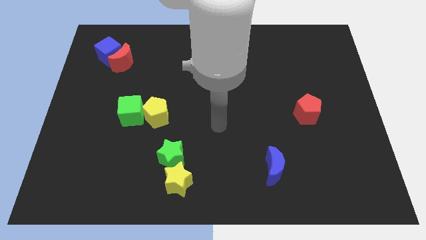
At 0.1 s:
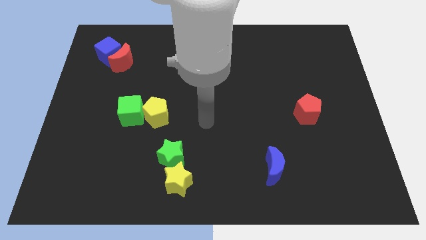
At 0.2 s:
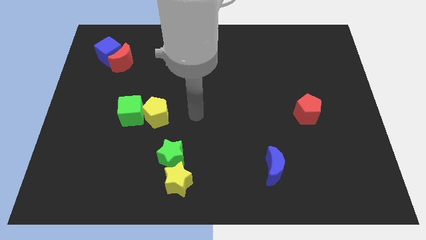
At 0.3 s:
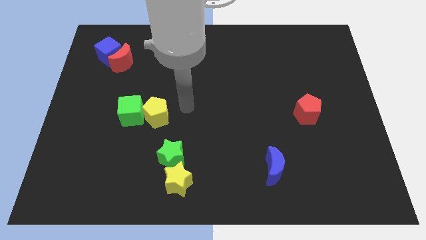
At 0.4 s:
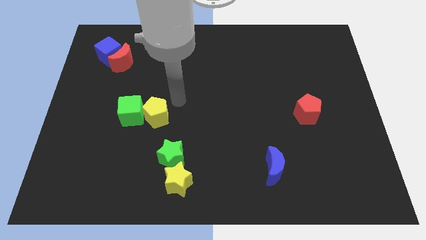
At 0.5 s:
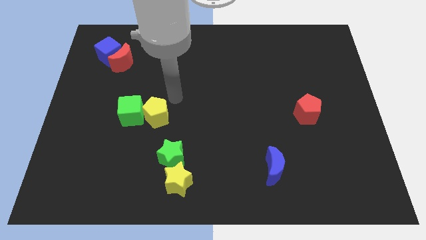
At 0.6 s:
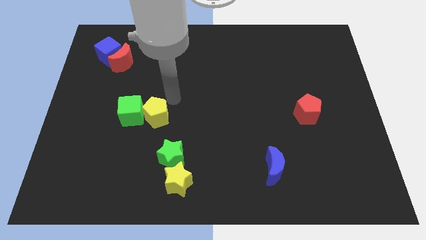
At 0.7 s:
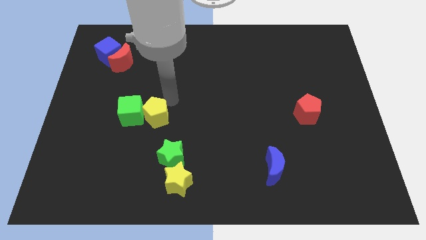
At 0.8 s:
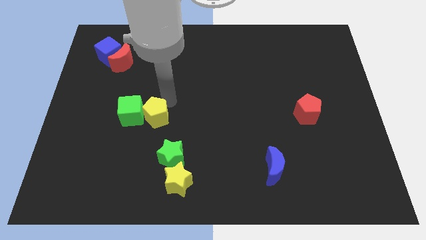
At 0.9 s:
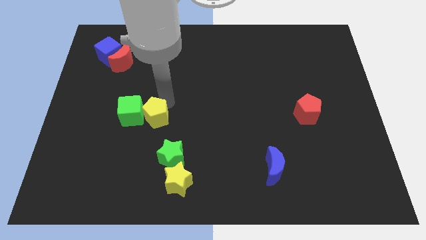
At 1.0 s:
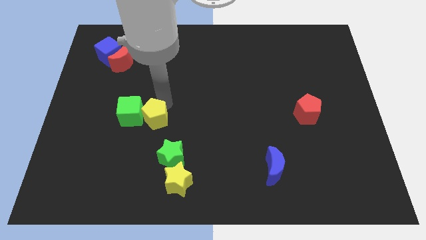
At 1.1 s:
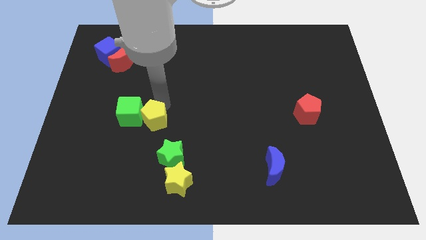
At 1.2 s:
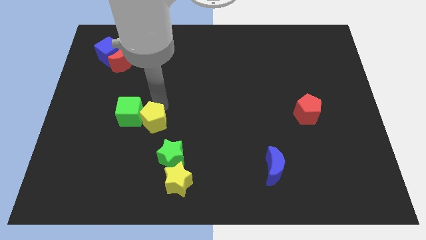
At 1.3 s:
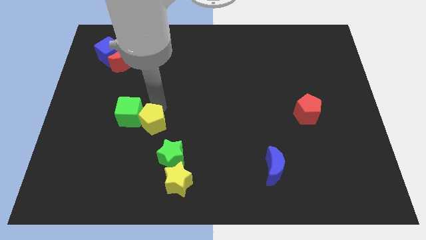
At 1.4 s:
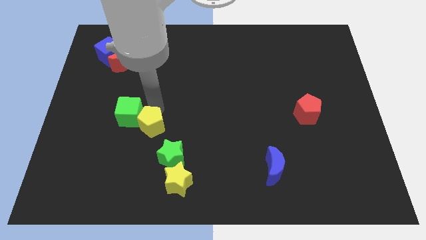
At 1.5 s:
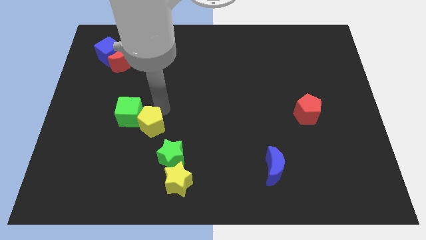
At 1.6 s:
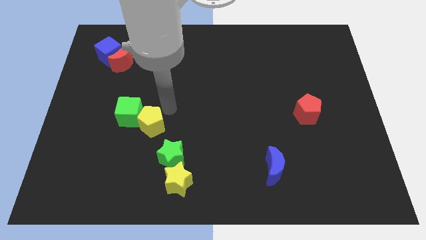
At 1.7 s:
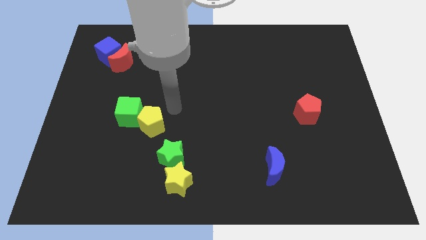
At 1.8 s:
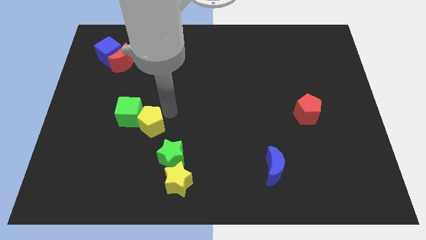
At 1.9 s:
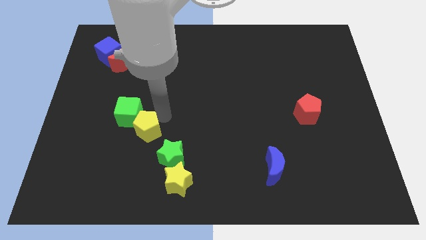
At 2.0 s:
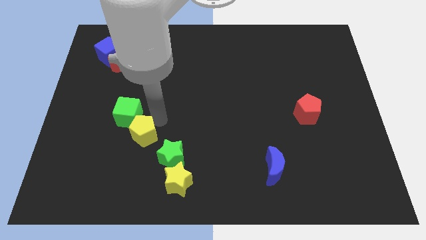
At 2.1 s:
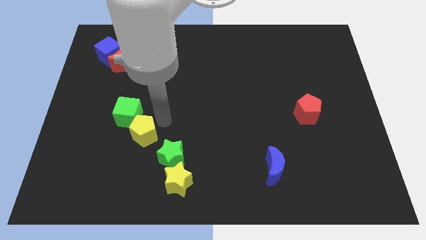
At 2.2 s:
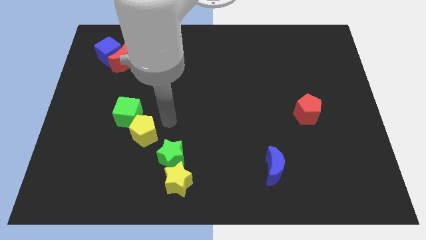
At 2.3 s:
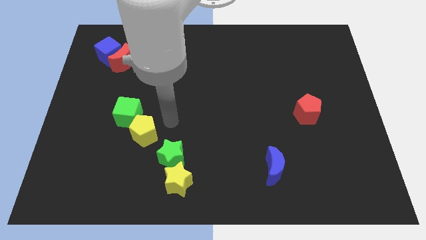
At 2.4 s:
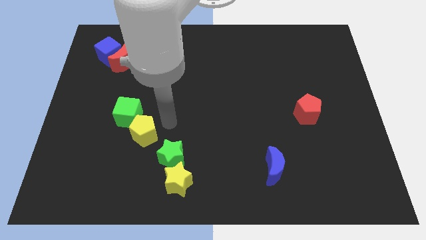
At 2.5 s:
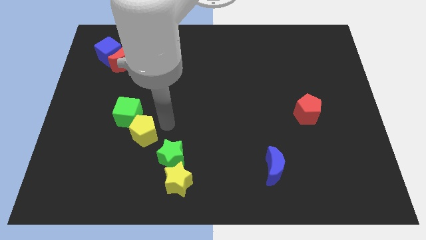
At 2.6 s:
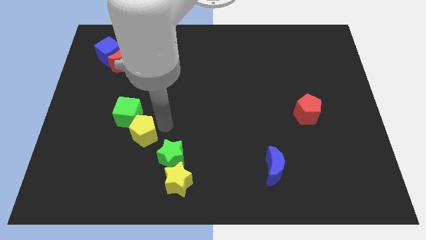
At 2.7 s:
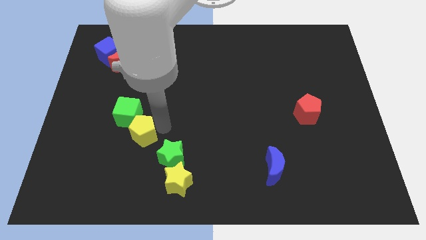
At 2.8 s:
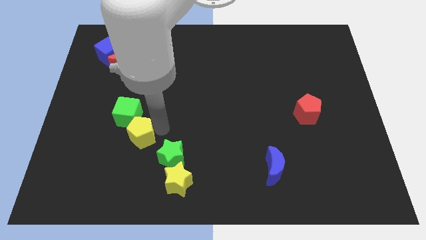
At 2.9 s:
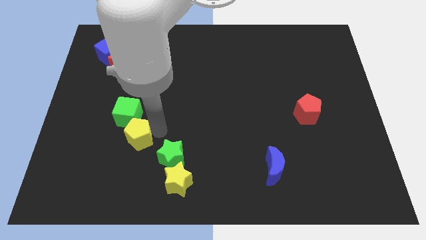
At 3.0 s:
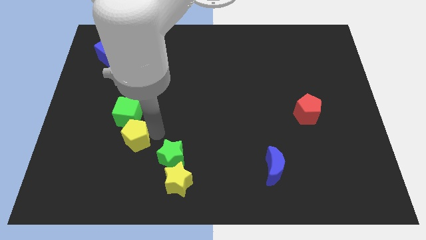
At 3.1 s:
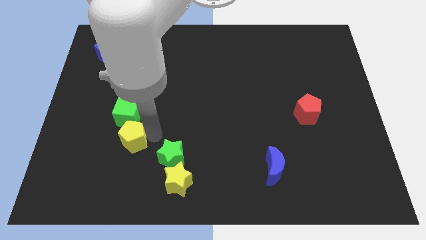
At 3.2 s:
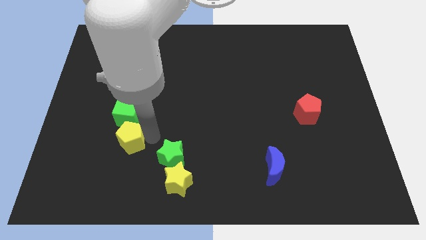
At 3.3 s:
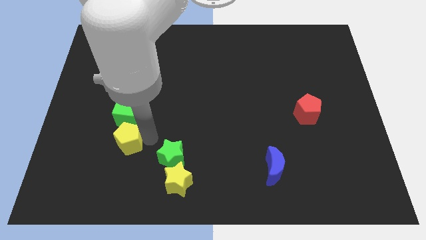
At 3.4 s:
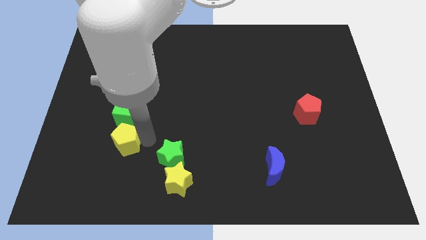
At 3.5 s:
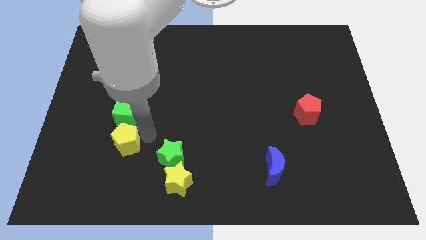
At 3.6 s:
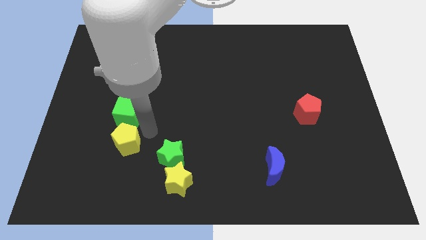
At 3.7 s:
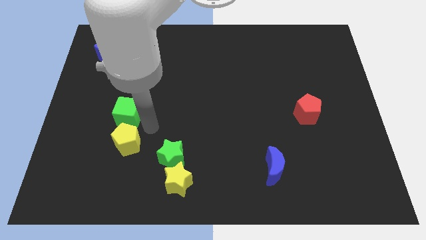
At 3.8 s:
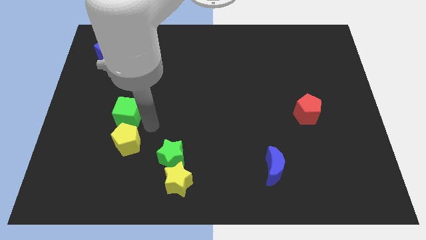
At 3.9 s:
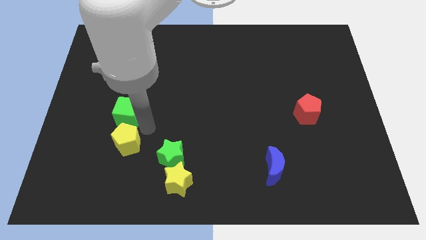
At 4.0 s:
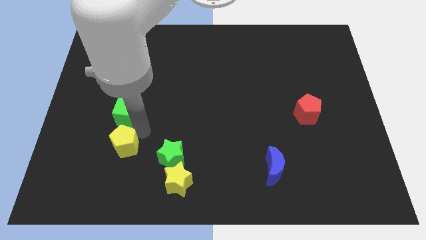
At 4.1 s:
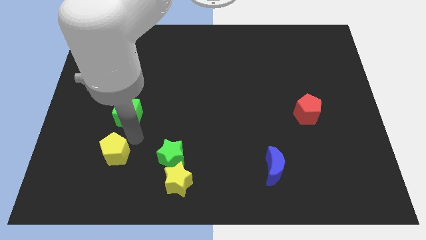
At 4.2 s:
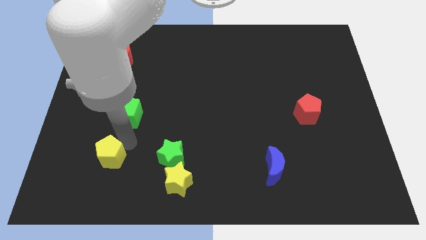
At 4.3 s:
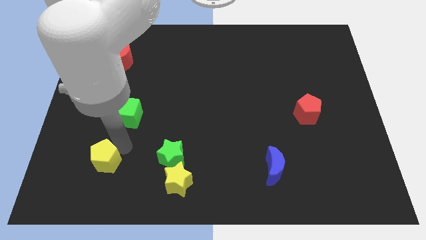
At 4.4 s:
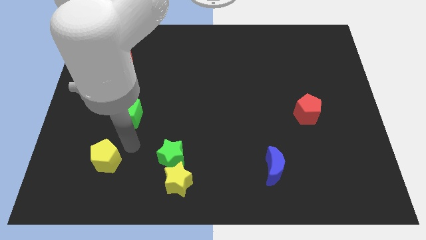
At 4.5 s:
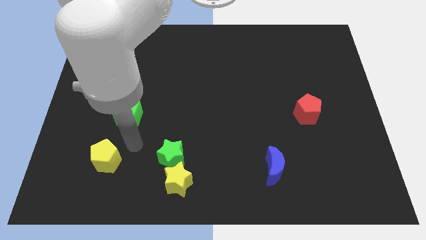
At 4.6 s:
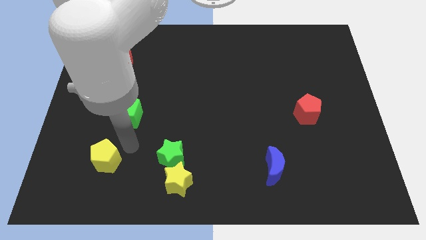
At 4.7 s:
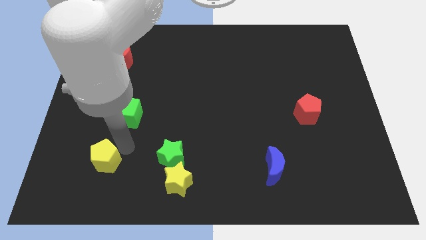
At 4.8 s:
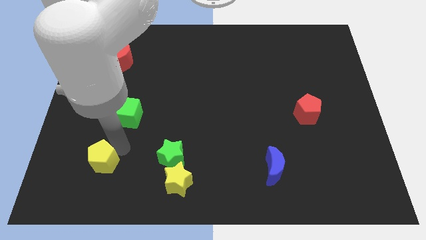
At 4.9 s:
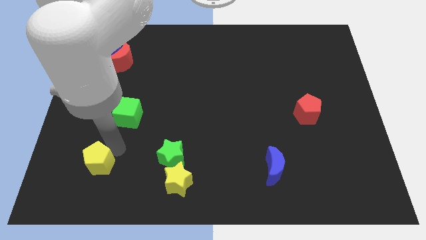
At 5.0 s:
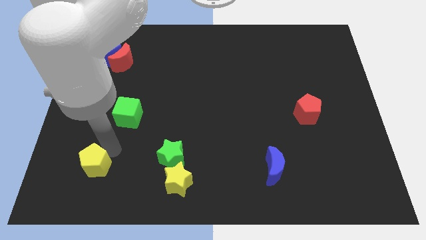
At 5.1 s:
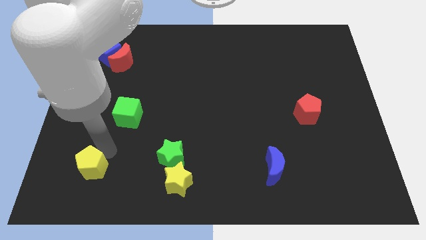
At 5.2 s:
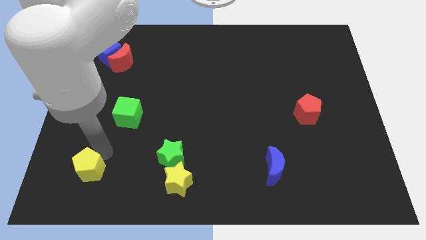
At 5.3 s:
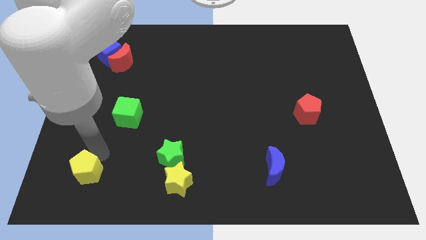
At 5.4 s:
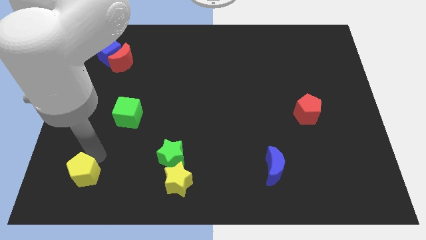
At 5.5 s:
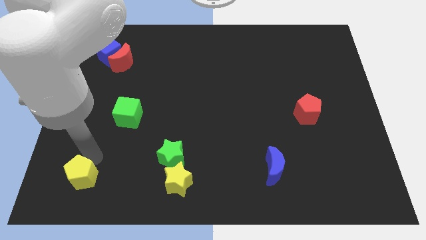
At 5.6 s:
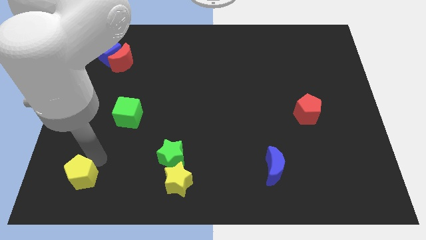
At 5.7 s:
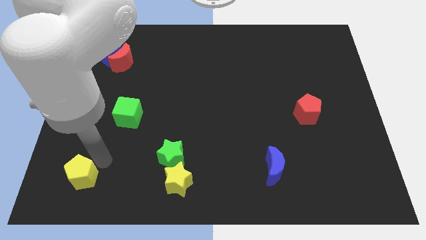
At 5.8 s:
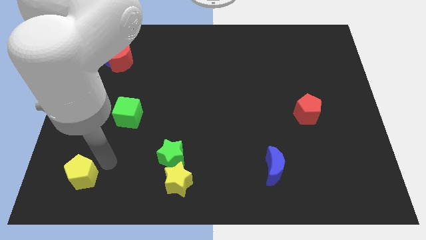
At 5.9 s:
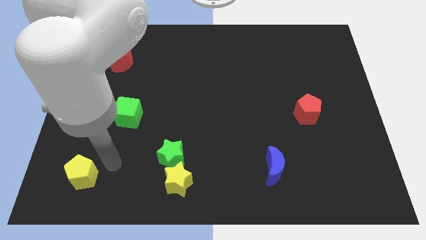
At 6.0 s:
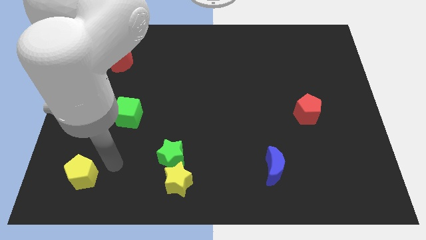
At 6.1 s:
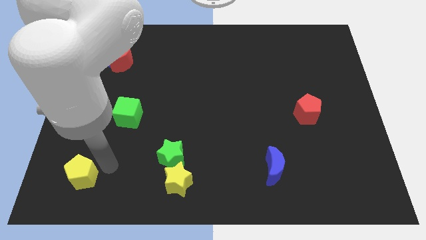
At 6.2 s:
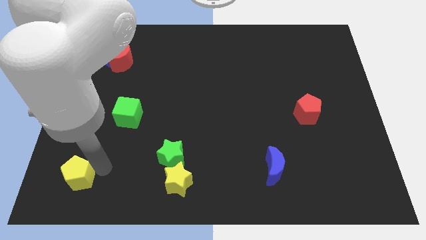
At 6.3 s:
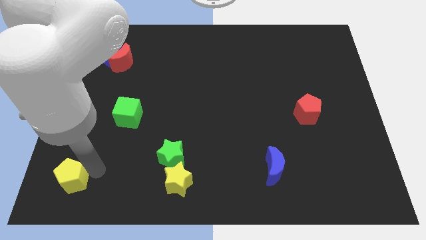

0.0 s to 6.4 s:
put the yellow pentagon to the lower left corner

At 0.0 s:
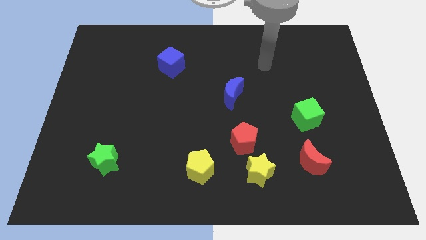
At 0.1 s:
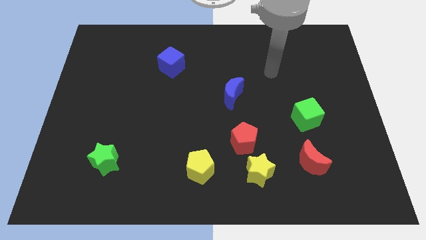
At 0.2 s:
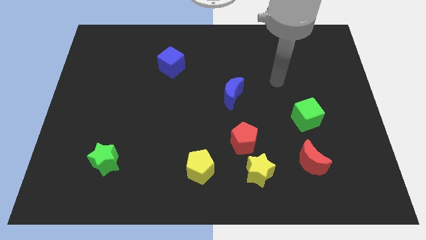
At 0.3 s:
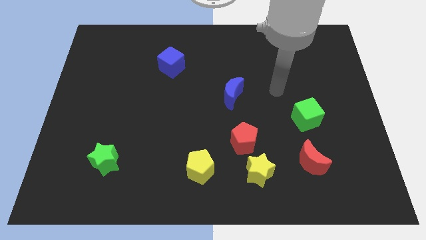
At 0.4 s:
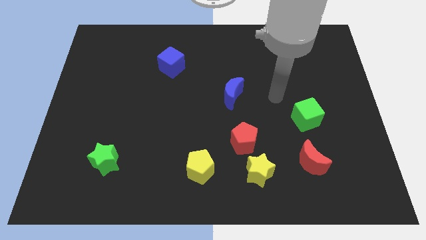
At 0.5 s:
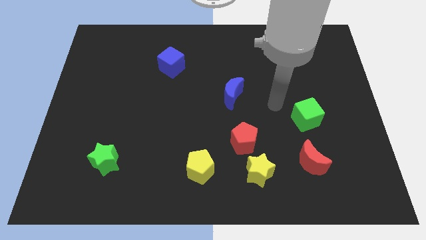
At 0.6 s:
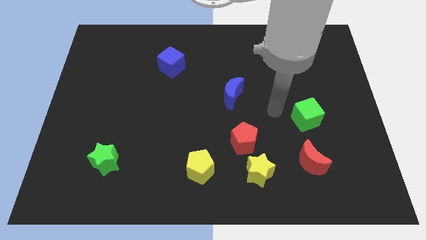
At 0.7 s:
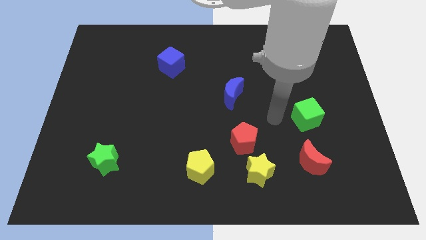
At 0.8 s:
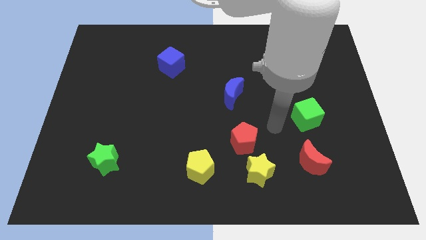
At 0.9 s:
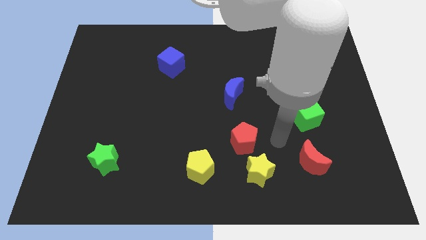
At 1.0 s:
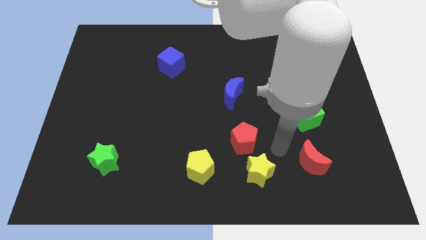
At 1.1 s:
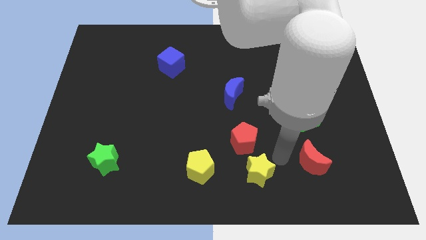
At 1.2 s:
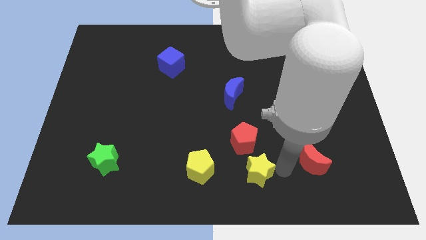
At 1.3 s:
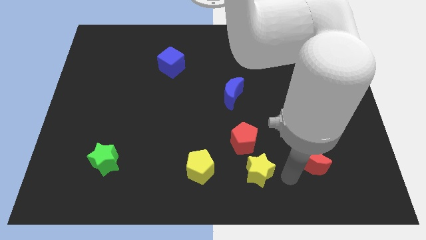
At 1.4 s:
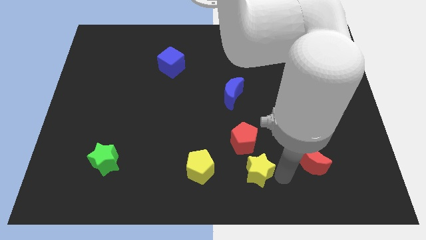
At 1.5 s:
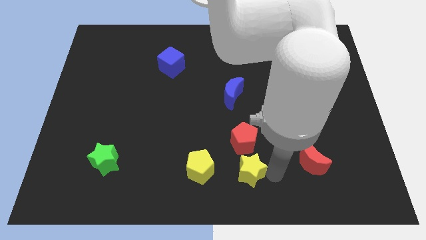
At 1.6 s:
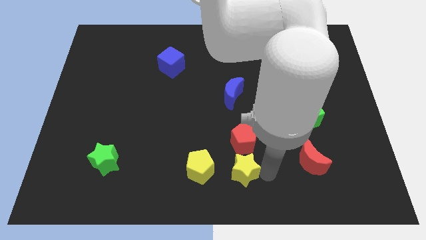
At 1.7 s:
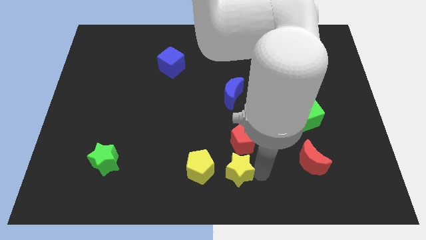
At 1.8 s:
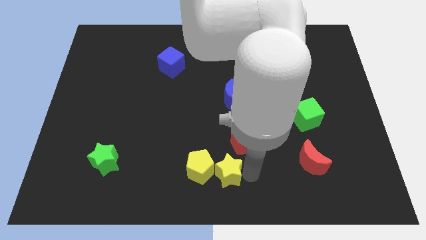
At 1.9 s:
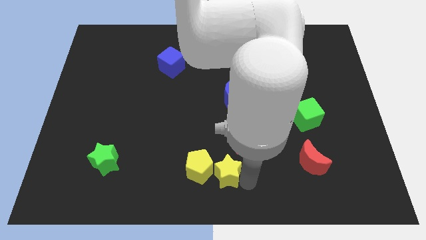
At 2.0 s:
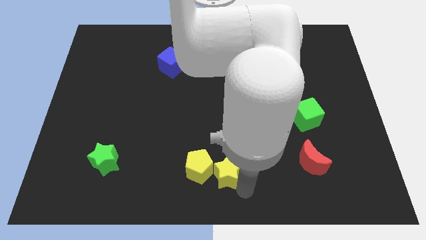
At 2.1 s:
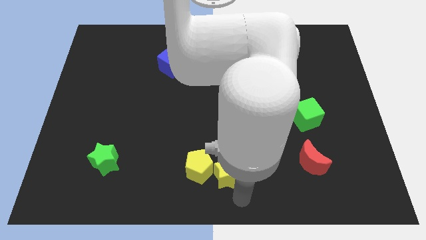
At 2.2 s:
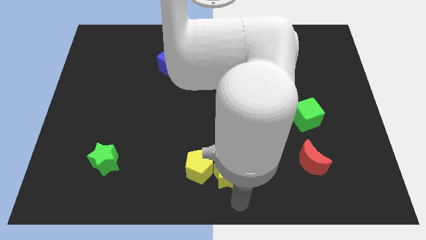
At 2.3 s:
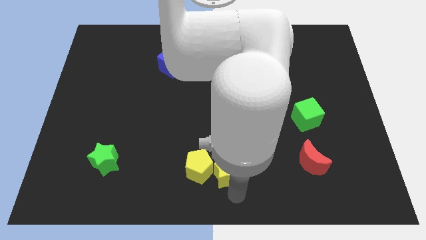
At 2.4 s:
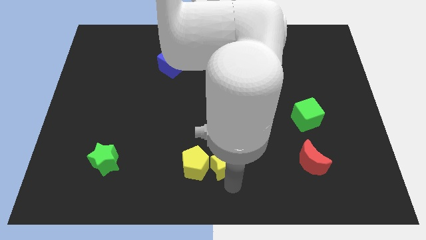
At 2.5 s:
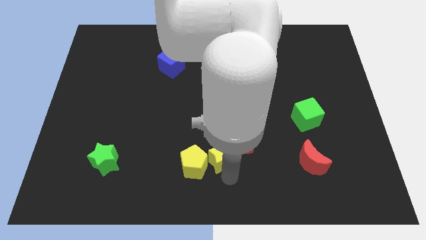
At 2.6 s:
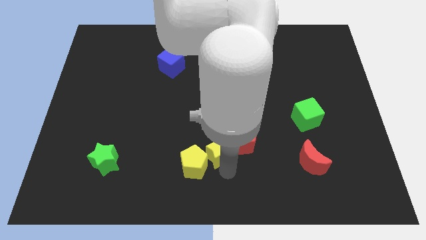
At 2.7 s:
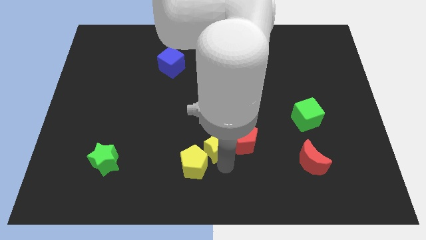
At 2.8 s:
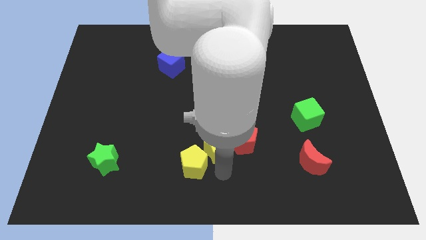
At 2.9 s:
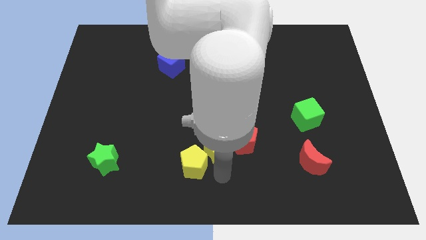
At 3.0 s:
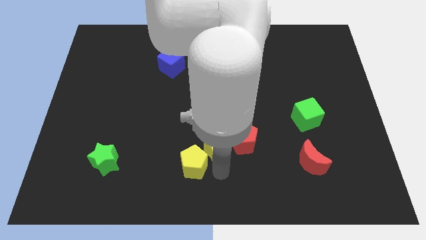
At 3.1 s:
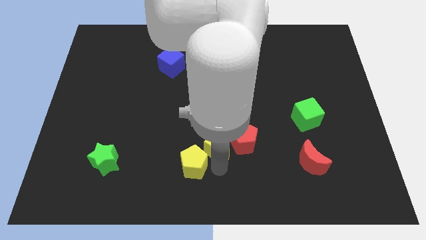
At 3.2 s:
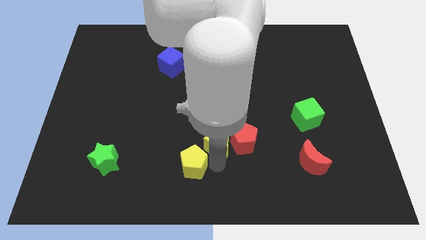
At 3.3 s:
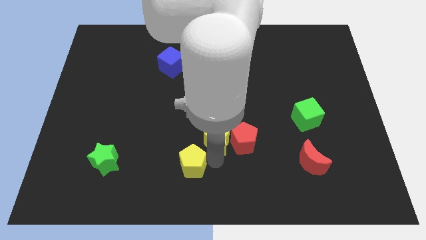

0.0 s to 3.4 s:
move the yellow star to the middle
